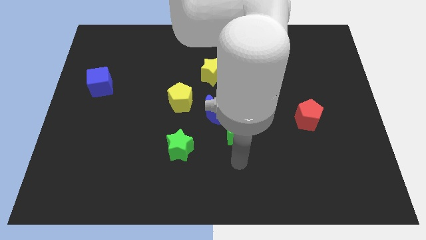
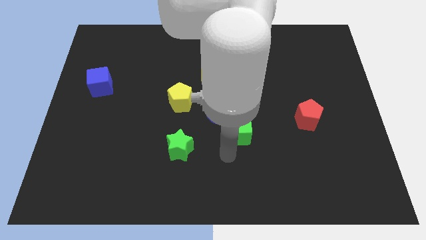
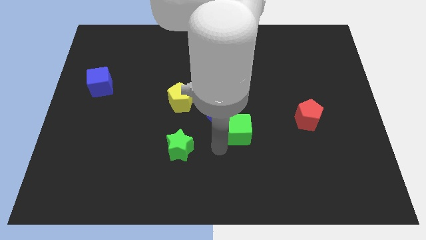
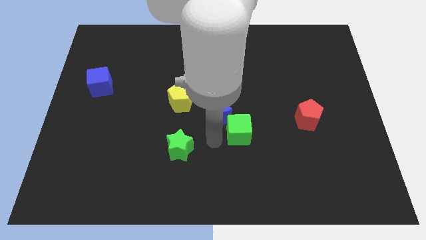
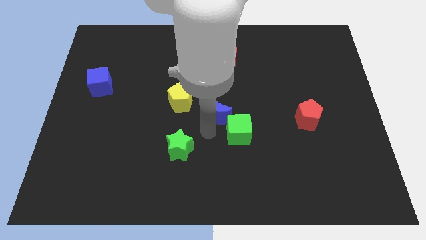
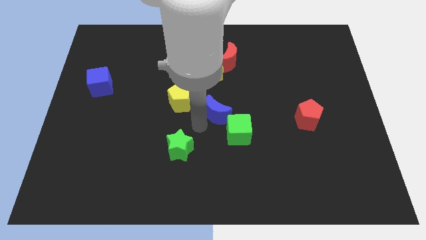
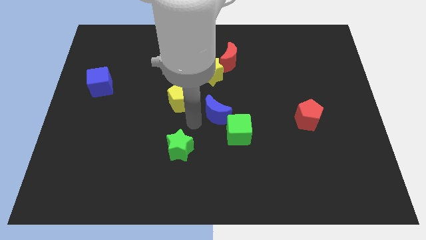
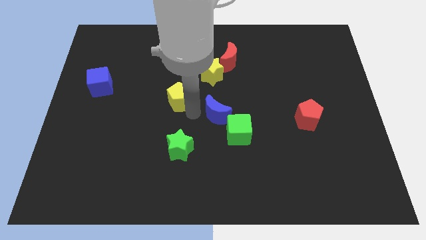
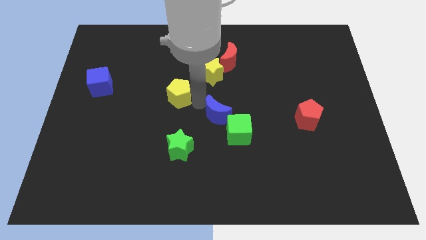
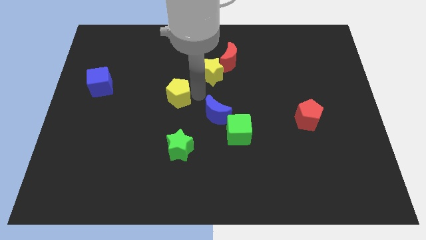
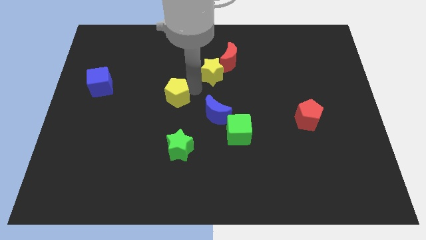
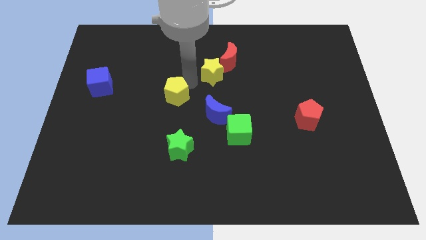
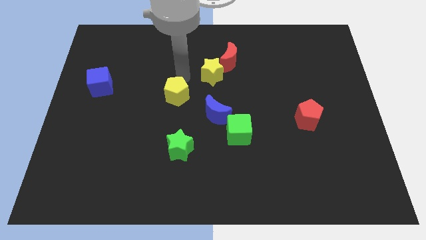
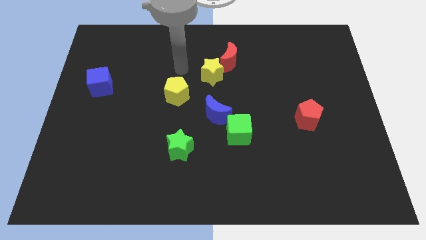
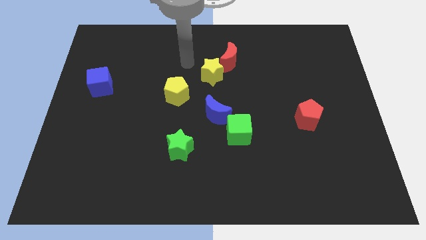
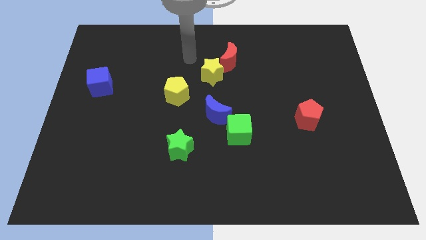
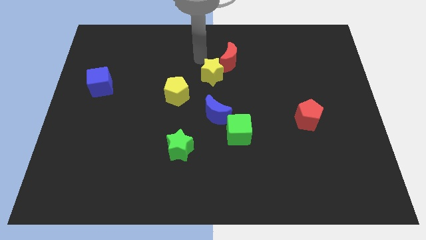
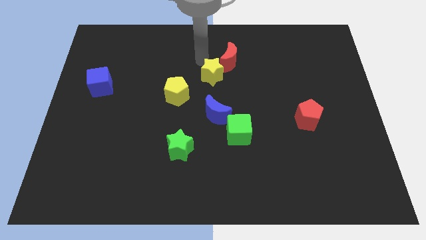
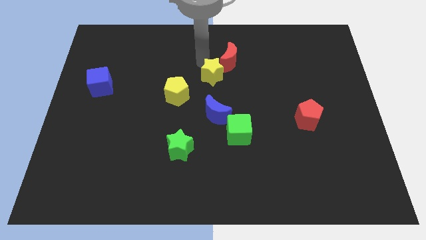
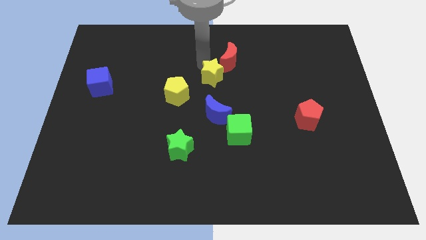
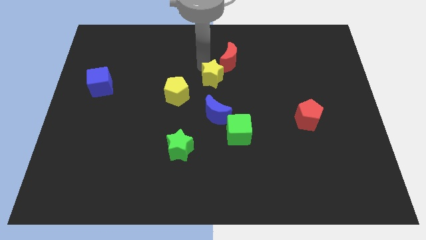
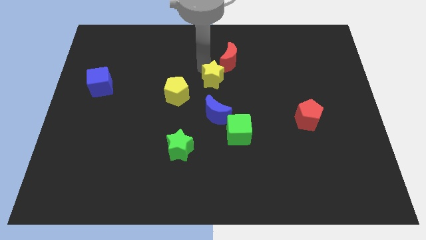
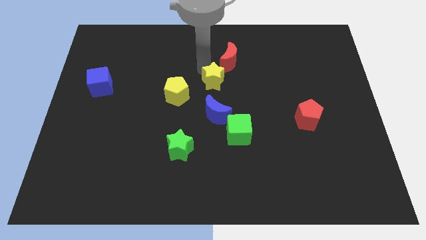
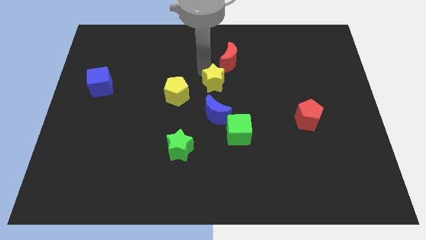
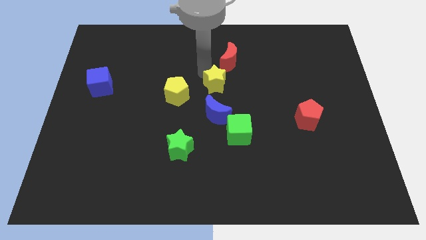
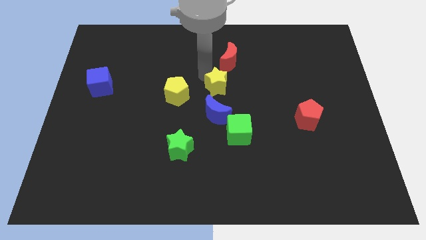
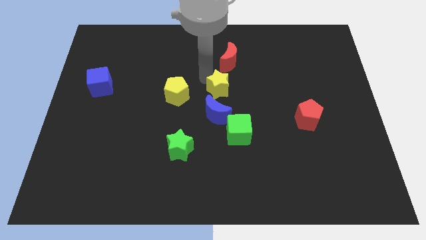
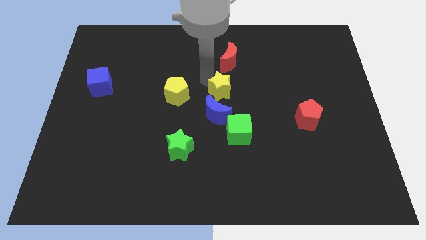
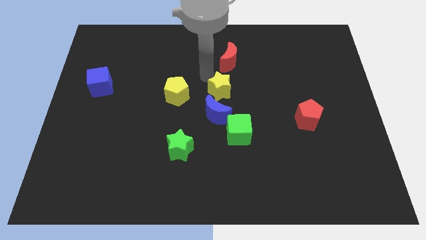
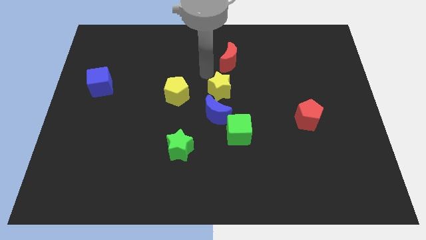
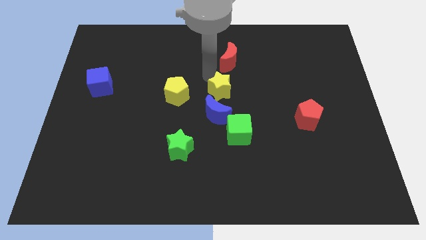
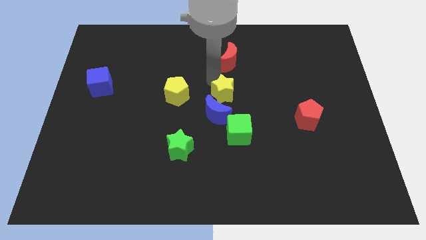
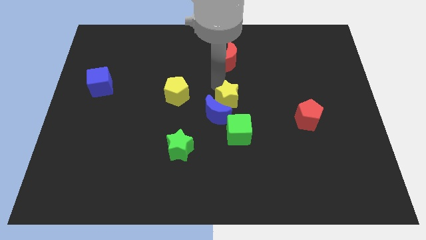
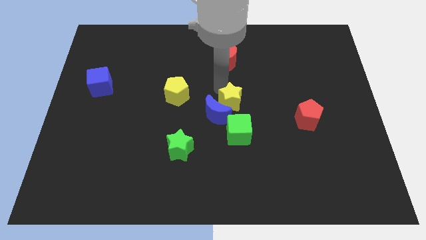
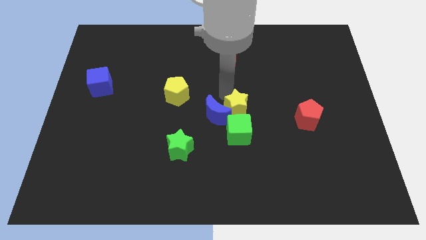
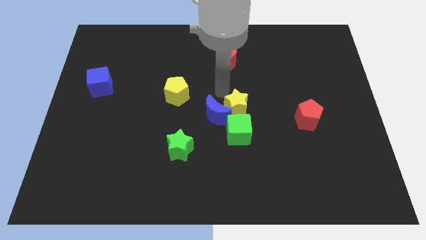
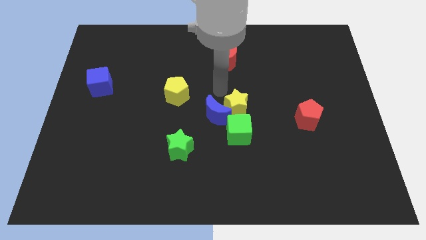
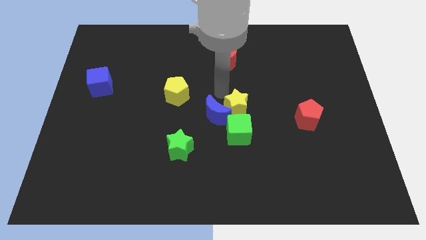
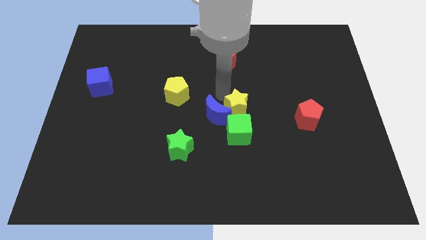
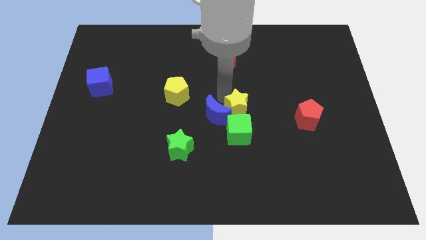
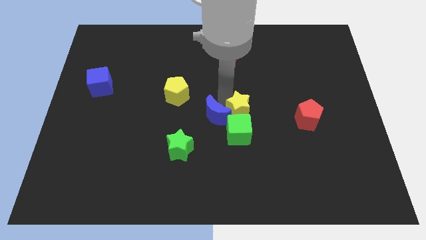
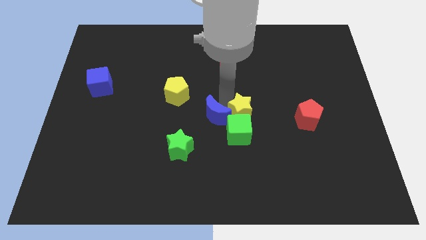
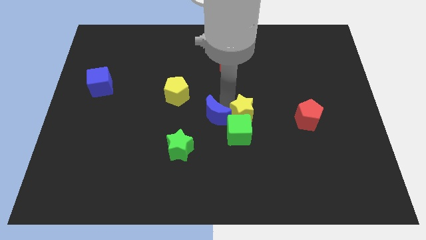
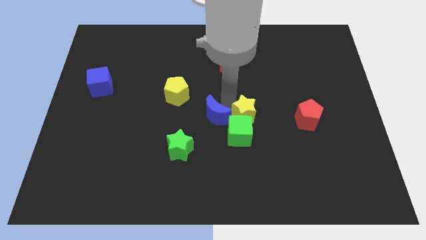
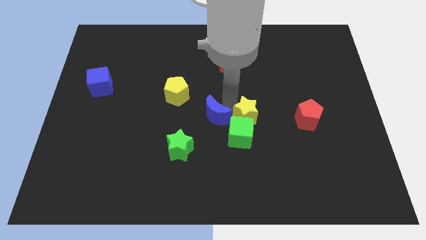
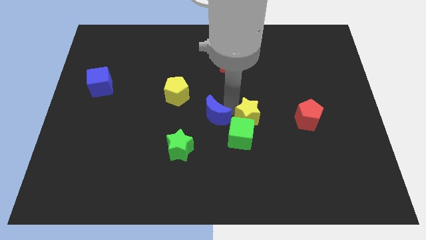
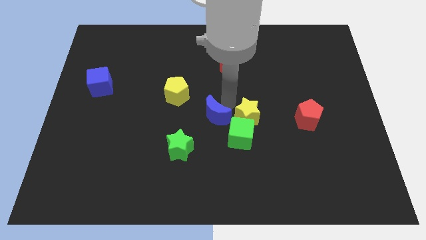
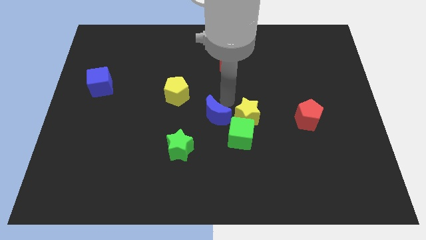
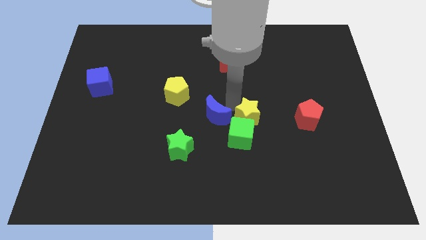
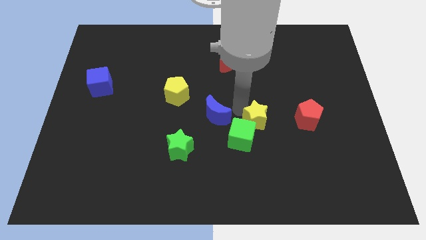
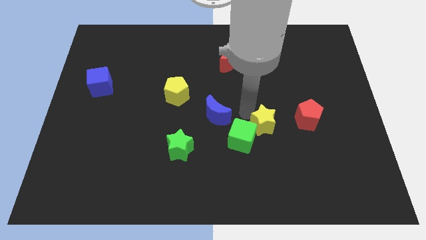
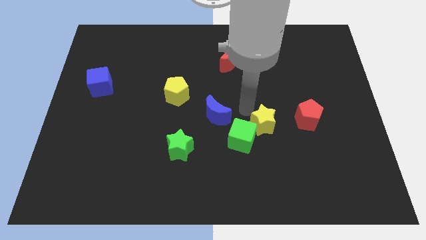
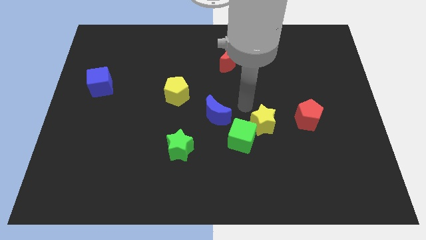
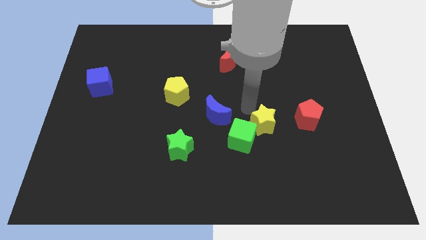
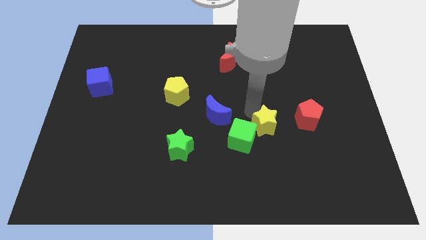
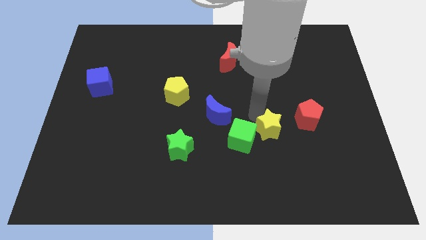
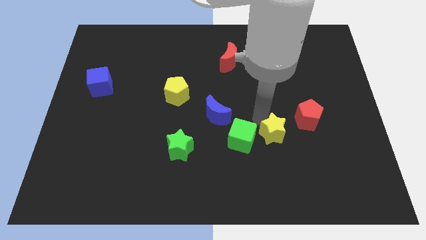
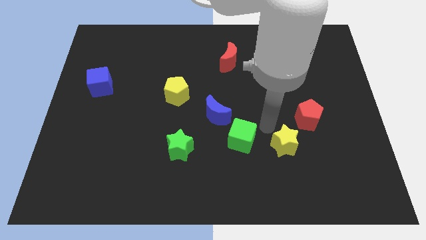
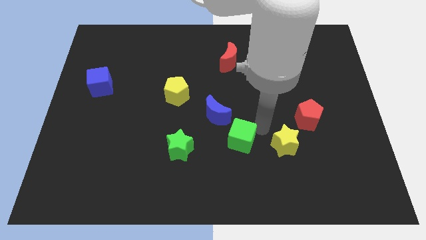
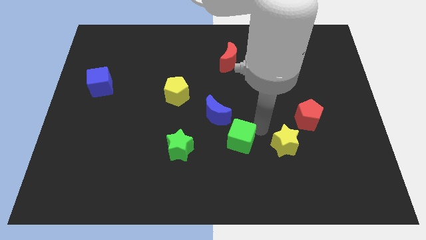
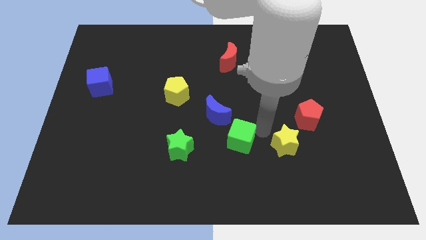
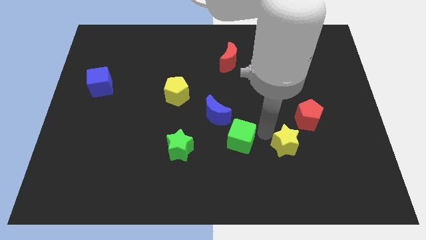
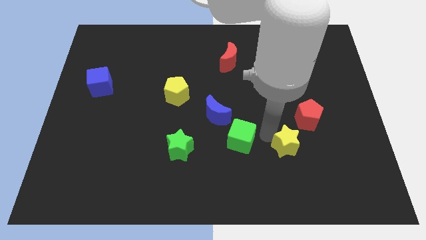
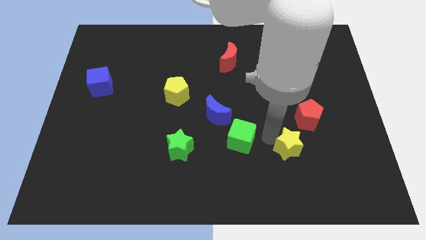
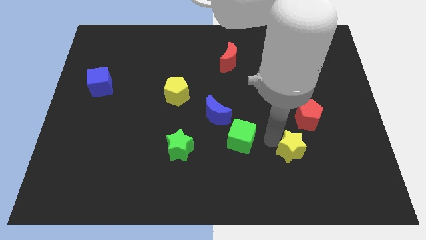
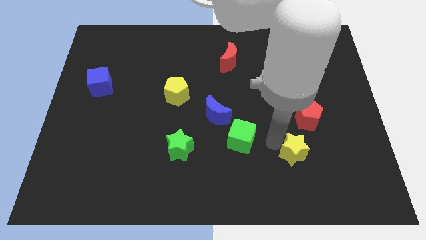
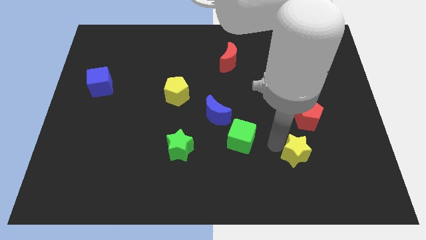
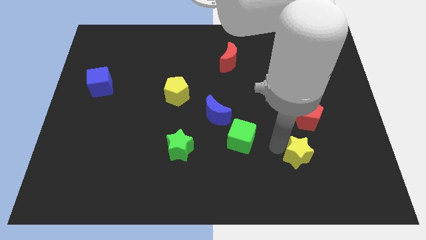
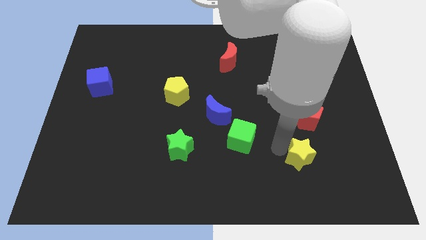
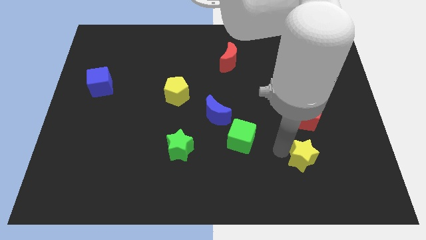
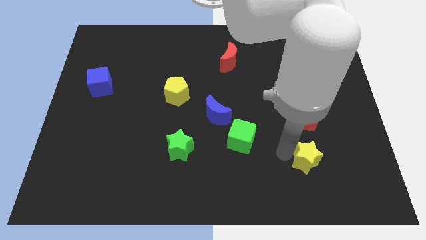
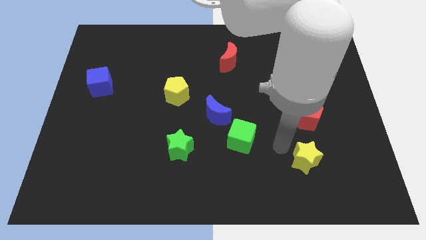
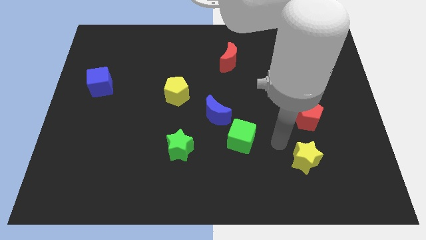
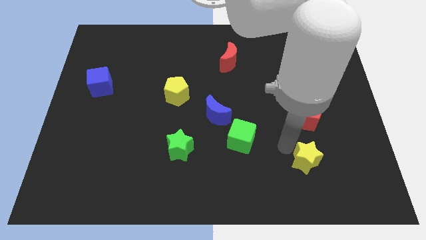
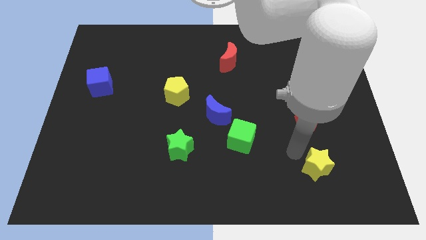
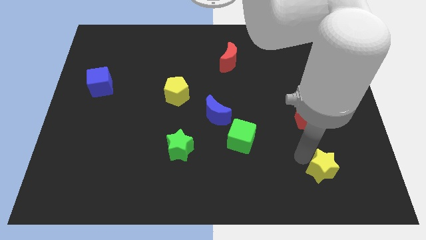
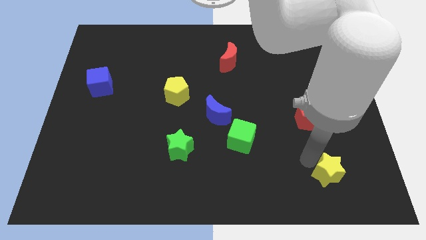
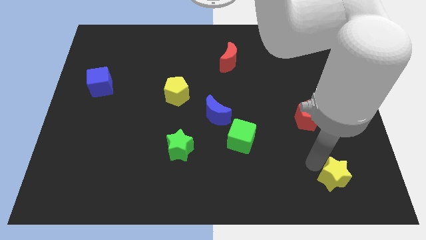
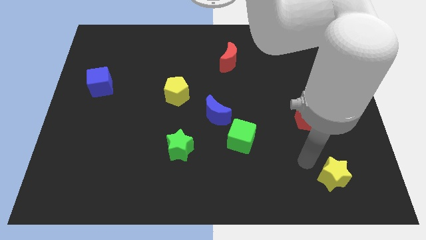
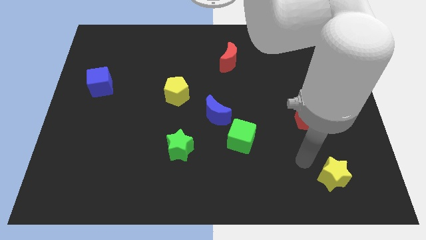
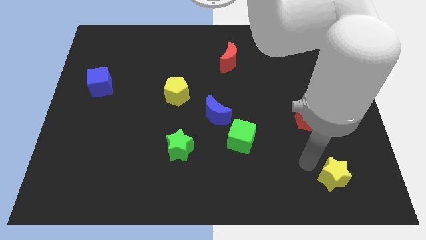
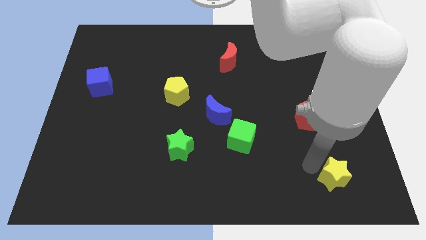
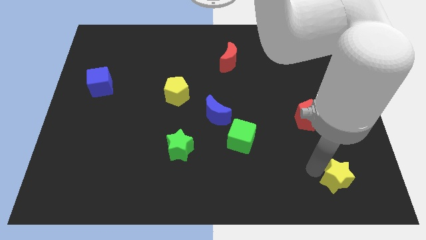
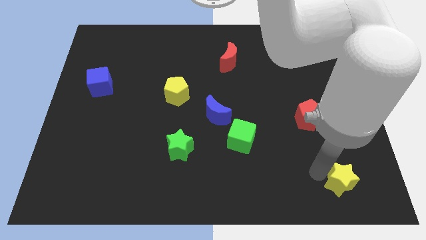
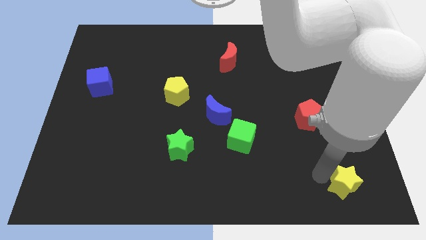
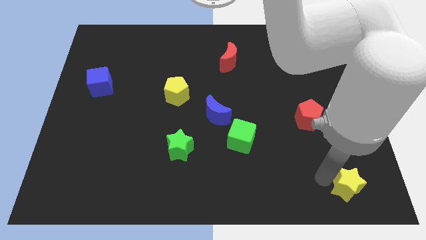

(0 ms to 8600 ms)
slide the yellow star to the bottom right
